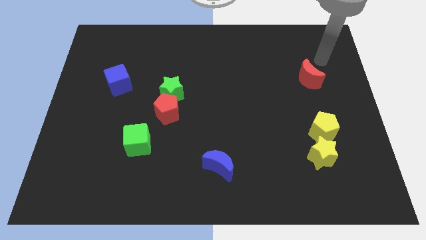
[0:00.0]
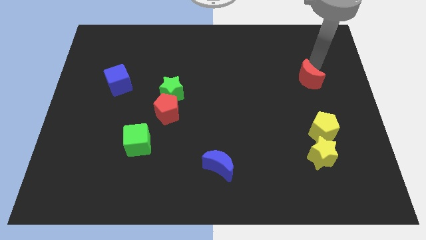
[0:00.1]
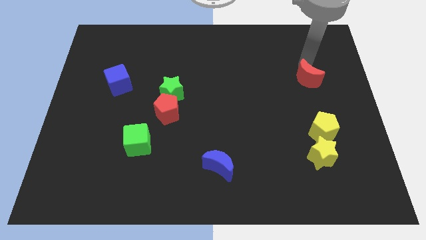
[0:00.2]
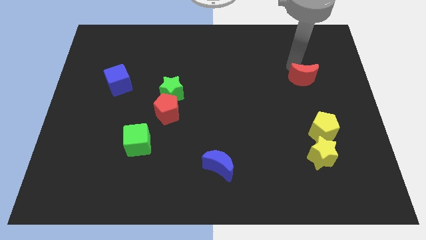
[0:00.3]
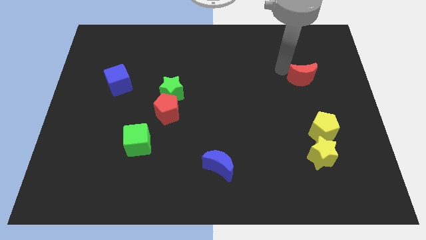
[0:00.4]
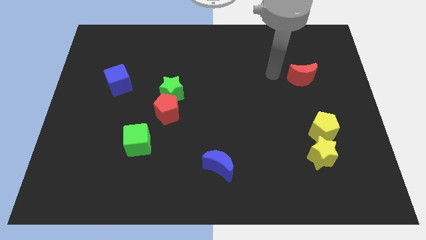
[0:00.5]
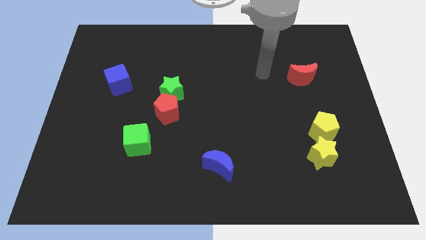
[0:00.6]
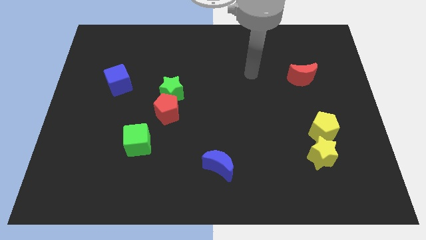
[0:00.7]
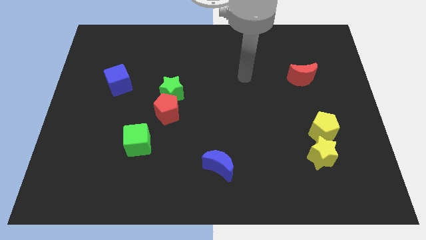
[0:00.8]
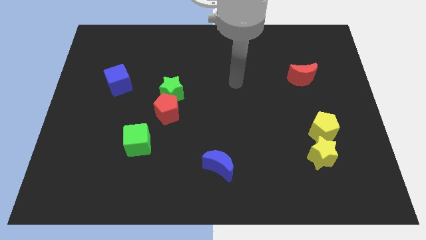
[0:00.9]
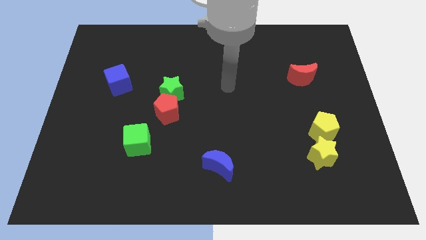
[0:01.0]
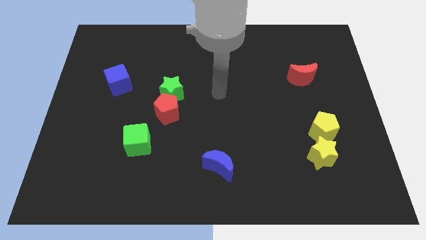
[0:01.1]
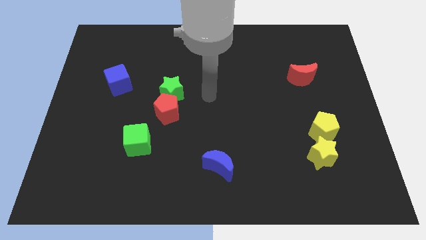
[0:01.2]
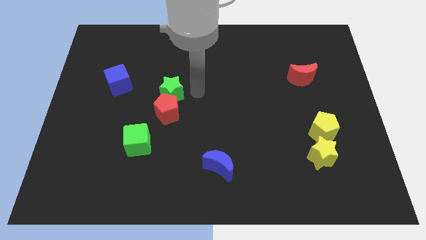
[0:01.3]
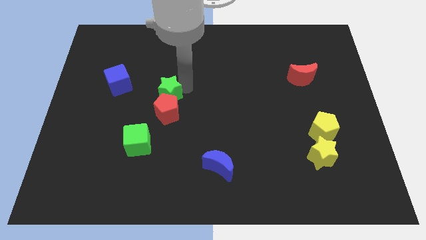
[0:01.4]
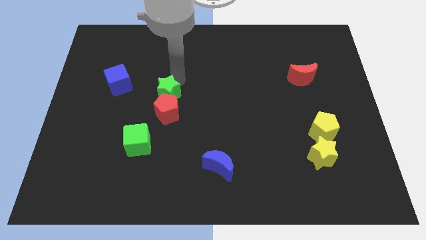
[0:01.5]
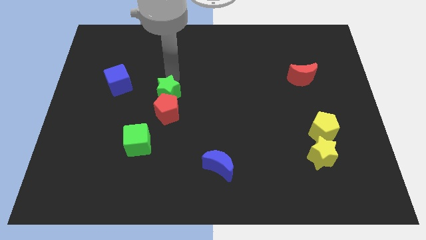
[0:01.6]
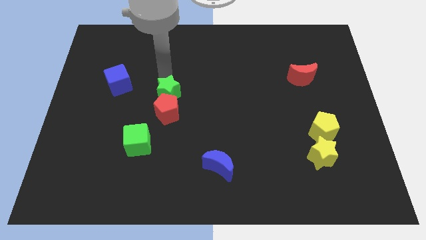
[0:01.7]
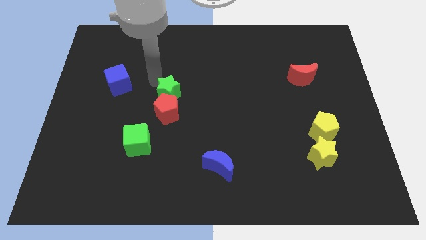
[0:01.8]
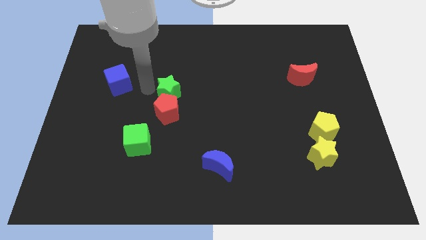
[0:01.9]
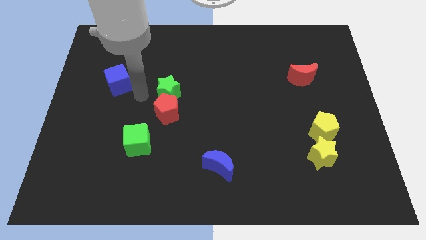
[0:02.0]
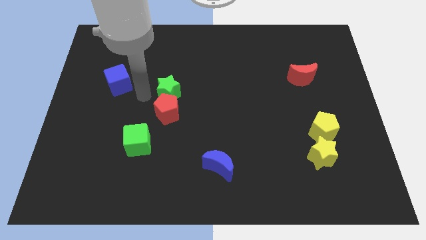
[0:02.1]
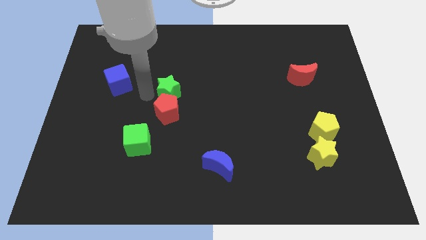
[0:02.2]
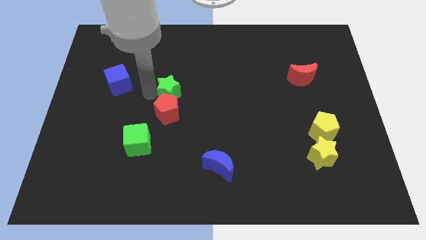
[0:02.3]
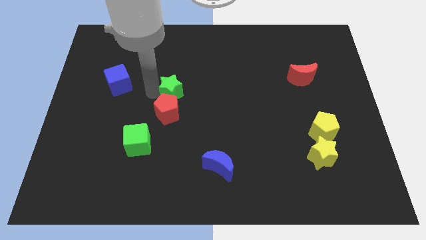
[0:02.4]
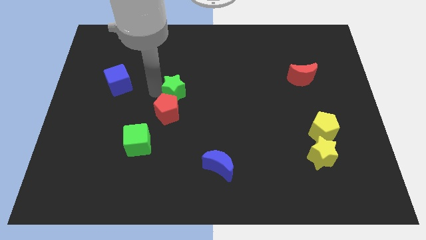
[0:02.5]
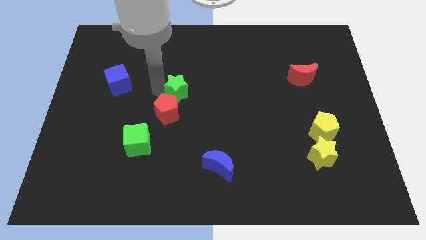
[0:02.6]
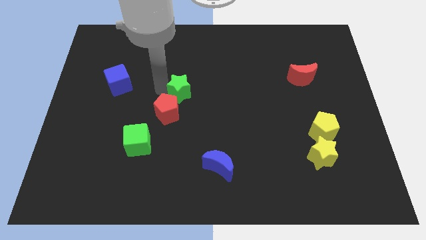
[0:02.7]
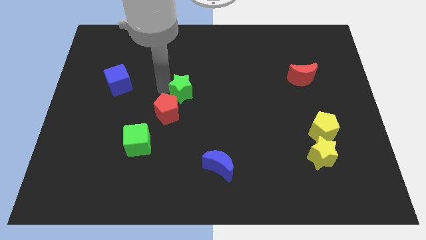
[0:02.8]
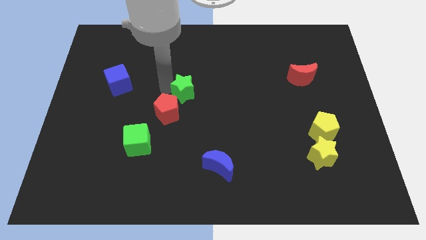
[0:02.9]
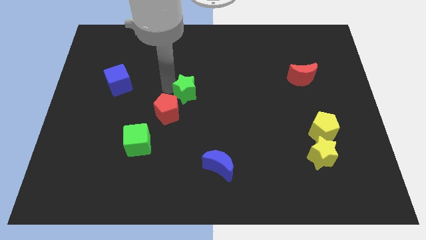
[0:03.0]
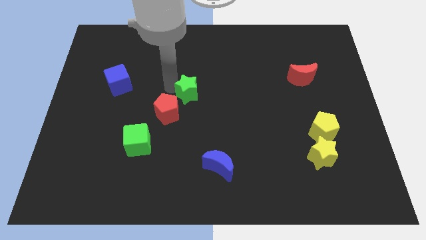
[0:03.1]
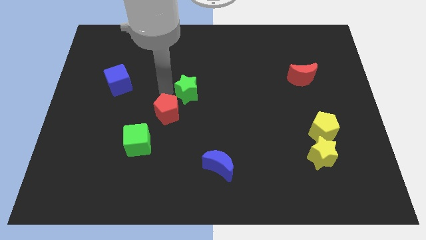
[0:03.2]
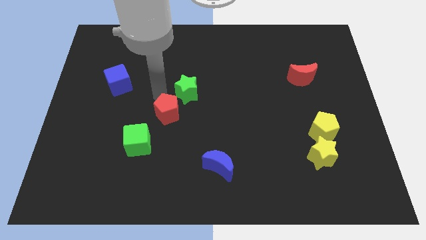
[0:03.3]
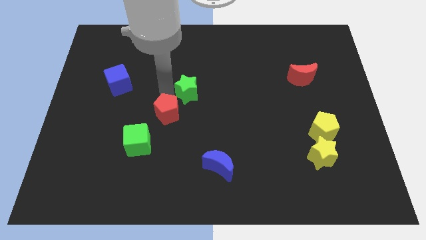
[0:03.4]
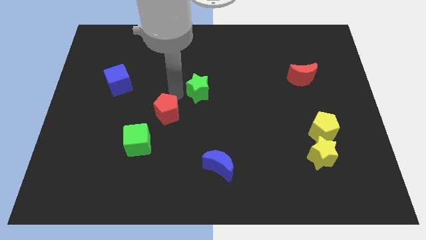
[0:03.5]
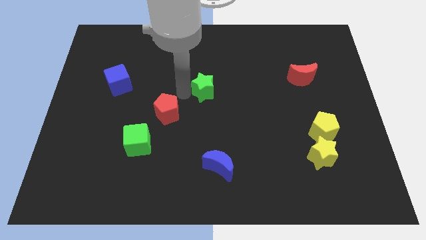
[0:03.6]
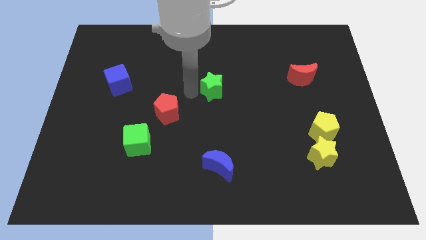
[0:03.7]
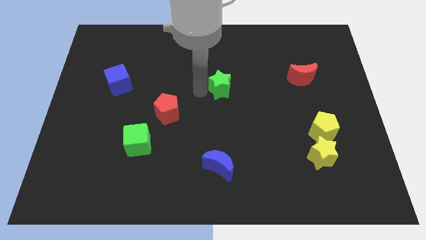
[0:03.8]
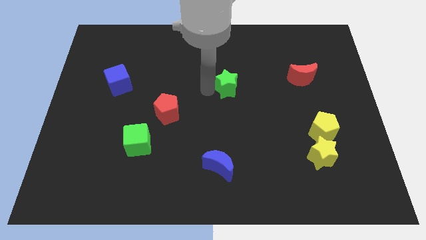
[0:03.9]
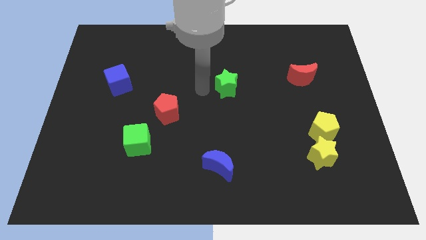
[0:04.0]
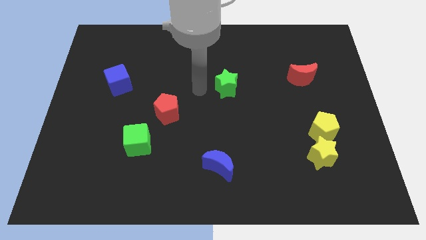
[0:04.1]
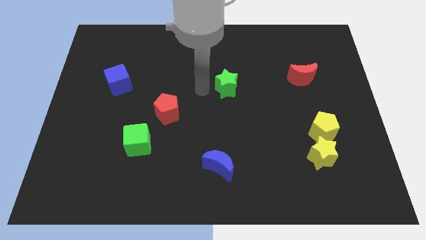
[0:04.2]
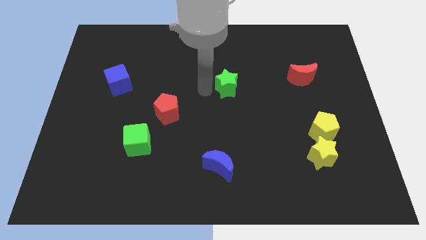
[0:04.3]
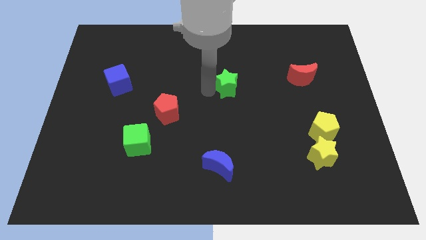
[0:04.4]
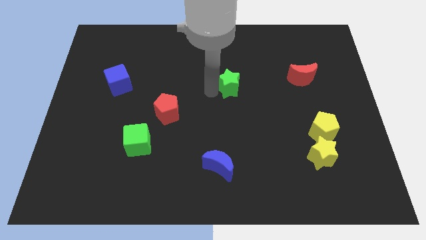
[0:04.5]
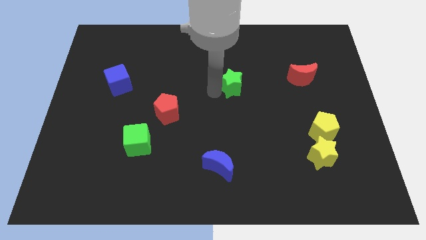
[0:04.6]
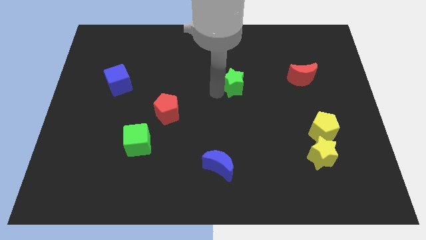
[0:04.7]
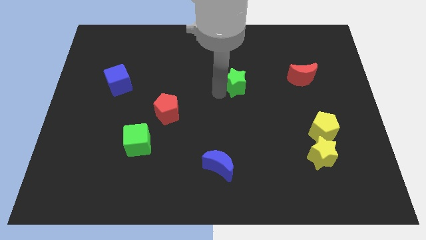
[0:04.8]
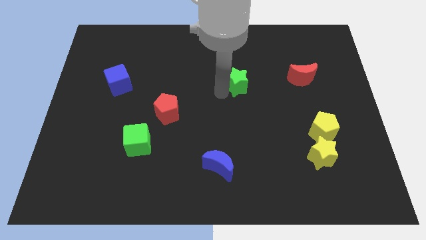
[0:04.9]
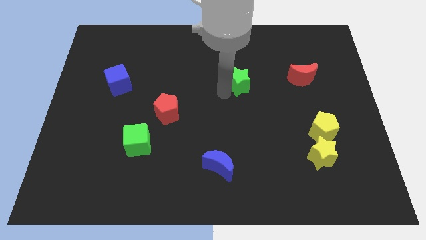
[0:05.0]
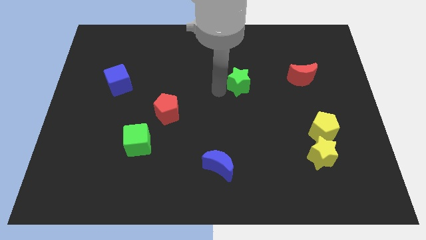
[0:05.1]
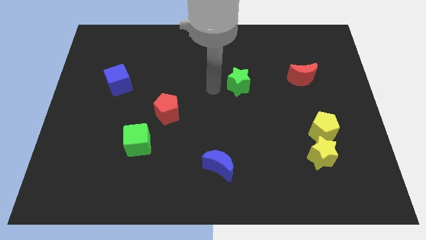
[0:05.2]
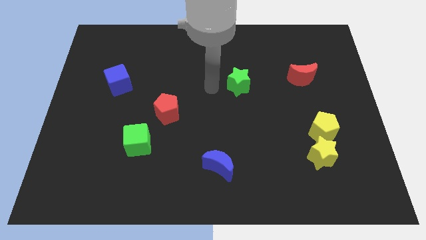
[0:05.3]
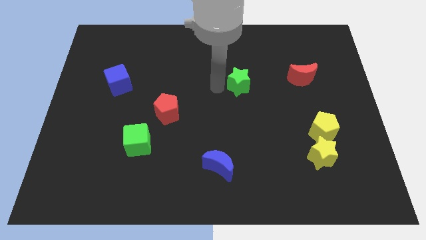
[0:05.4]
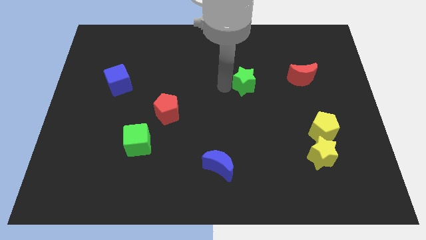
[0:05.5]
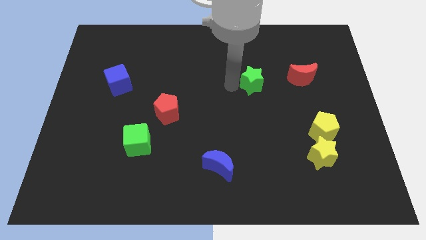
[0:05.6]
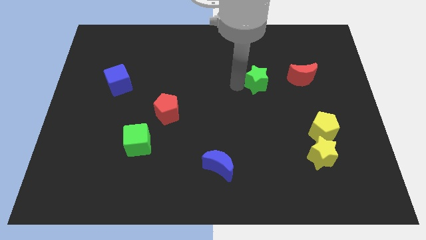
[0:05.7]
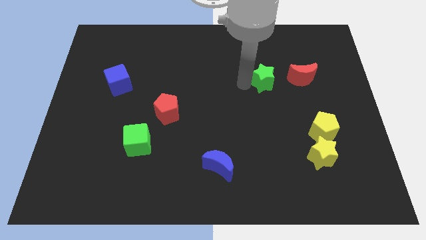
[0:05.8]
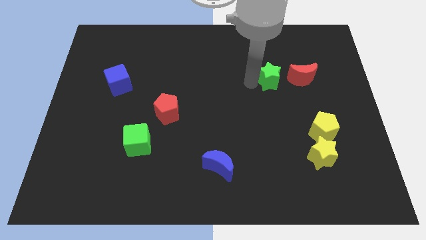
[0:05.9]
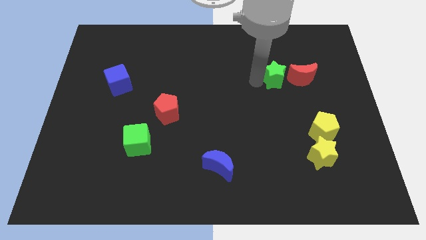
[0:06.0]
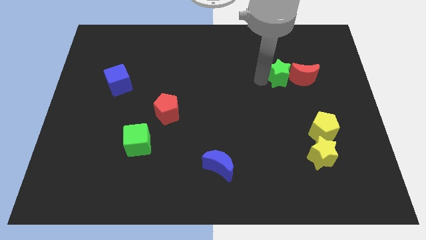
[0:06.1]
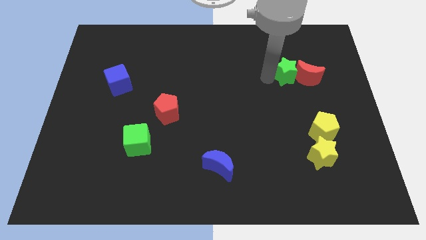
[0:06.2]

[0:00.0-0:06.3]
move the green star close to the red moon

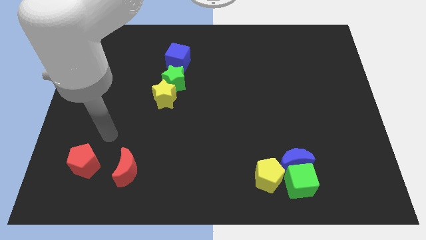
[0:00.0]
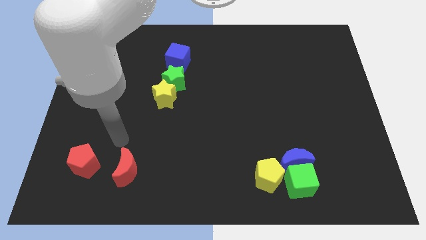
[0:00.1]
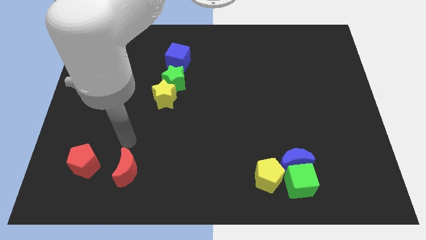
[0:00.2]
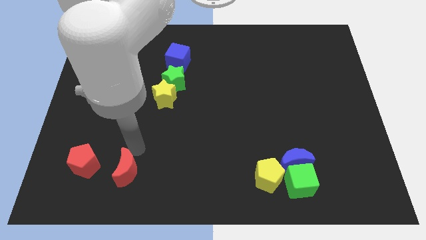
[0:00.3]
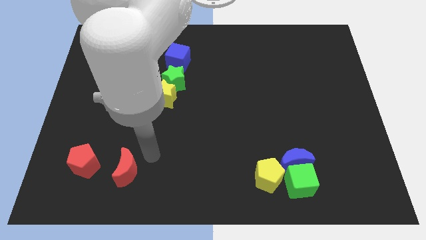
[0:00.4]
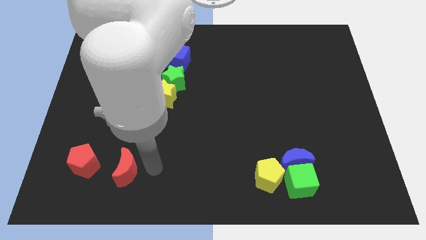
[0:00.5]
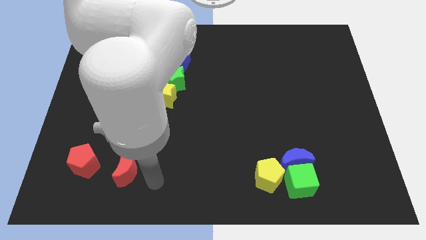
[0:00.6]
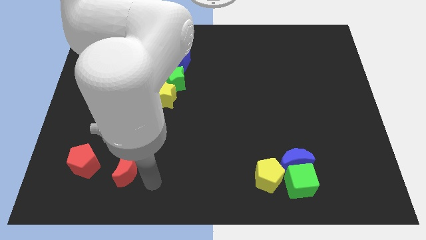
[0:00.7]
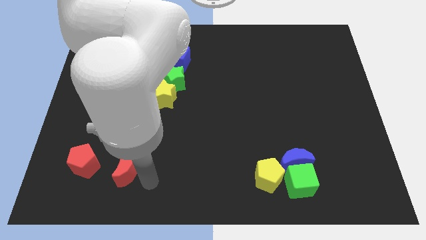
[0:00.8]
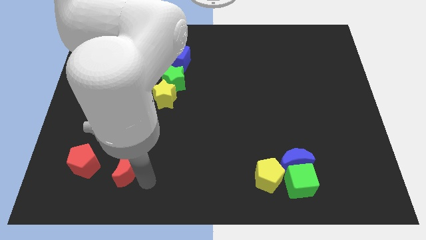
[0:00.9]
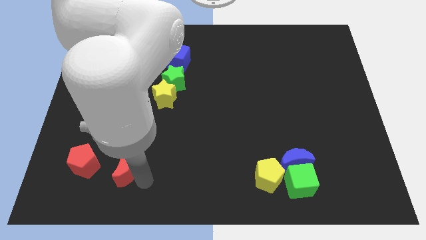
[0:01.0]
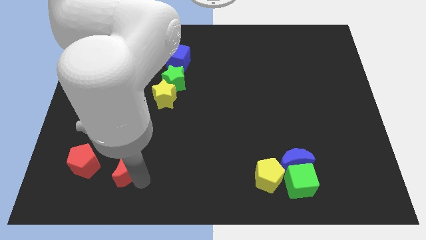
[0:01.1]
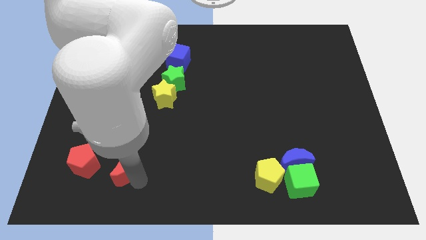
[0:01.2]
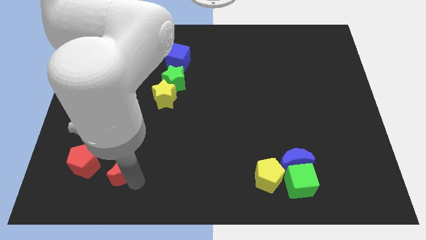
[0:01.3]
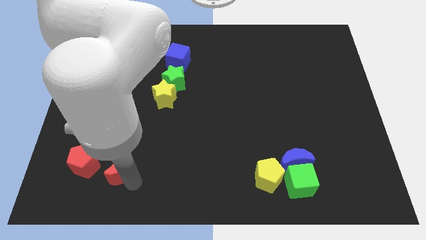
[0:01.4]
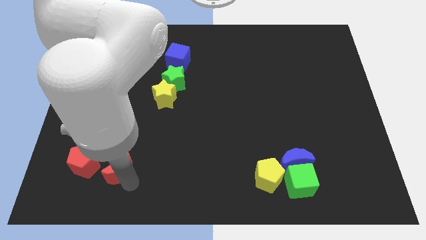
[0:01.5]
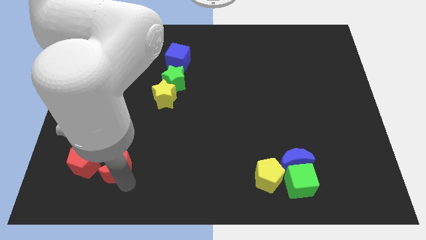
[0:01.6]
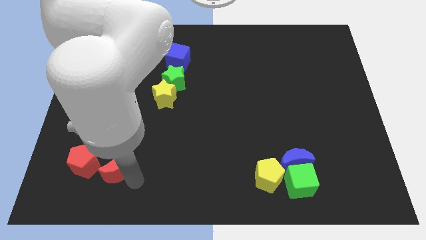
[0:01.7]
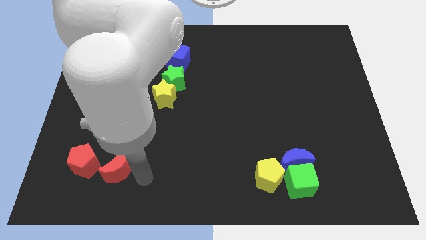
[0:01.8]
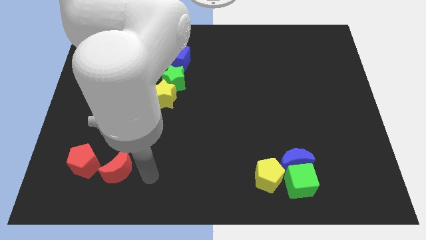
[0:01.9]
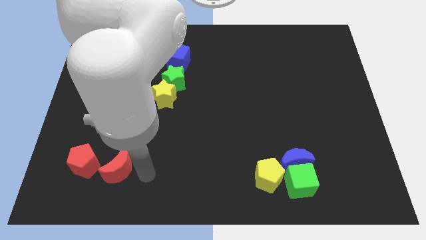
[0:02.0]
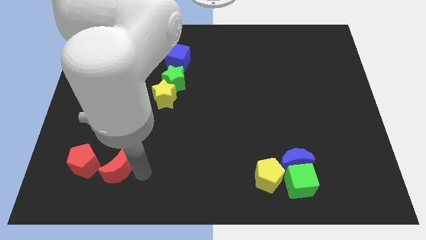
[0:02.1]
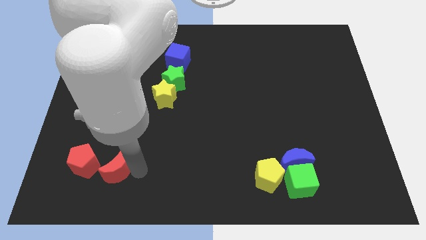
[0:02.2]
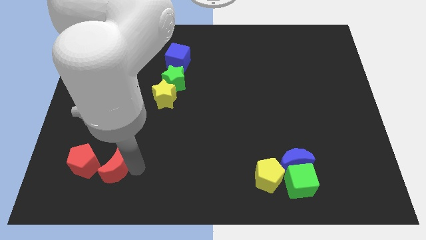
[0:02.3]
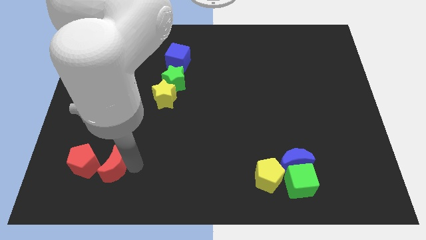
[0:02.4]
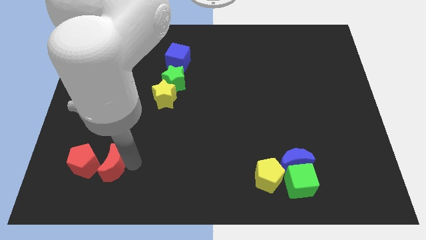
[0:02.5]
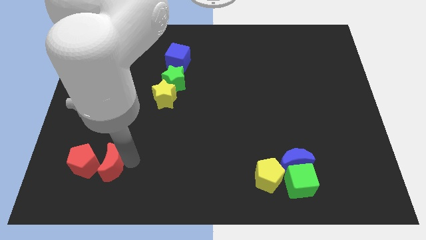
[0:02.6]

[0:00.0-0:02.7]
push the red moon towards the red pentagon
